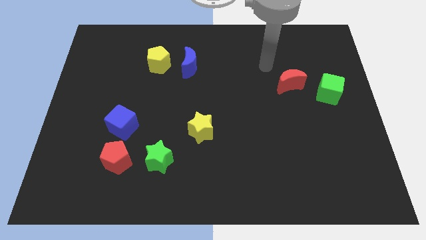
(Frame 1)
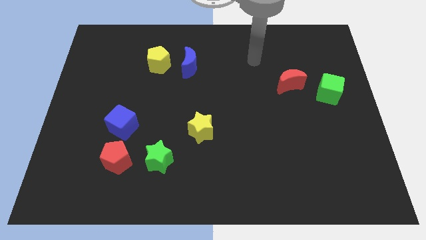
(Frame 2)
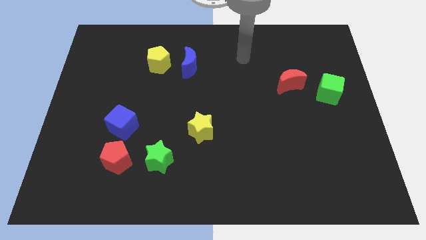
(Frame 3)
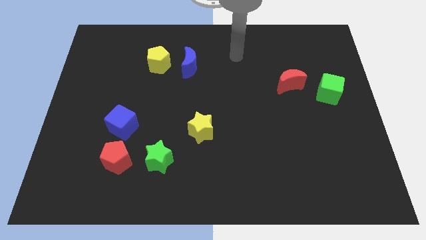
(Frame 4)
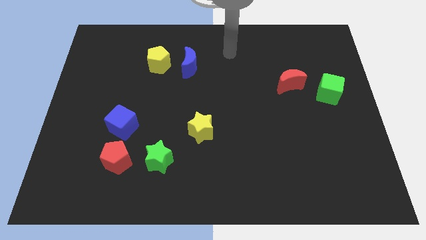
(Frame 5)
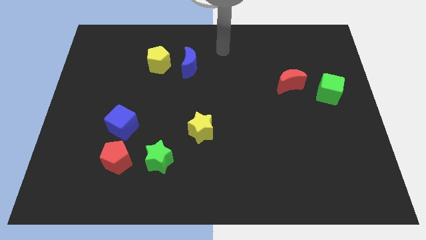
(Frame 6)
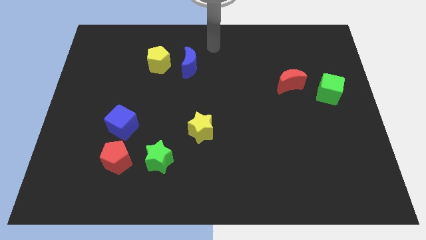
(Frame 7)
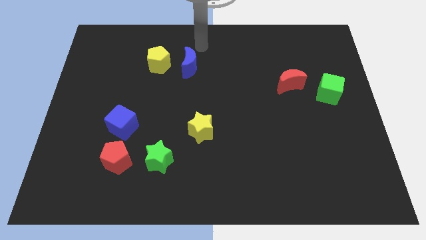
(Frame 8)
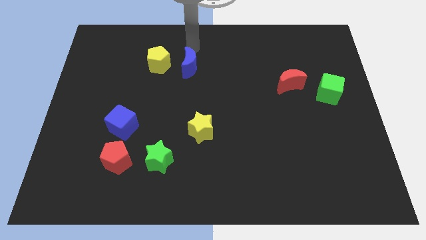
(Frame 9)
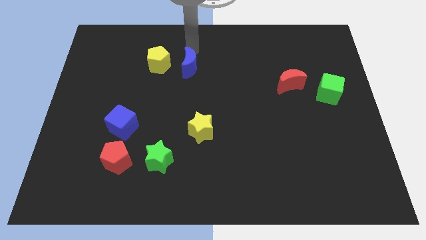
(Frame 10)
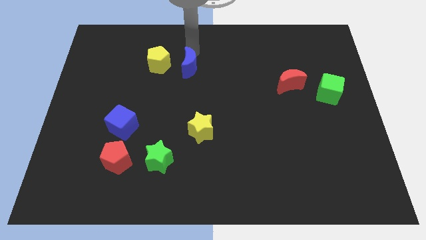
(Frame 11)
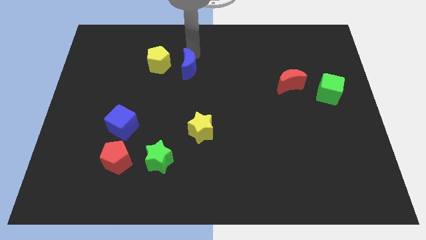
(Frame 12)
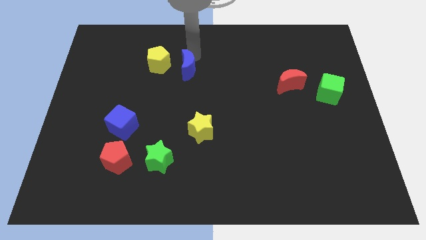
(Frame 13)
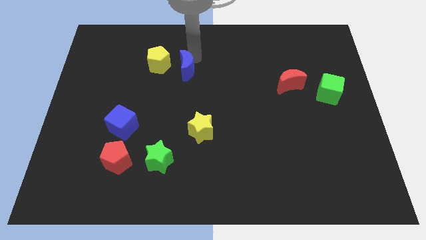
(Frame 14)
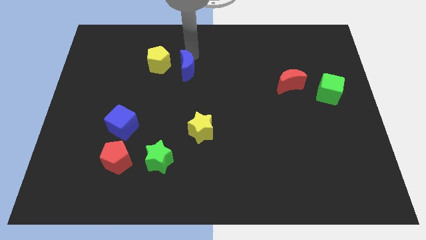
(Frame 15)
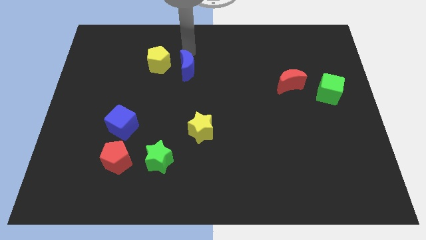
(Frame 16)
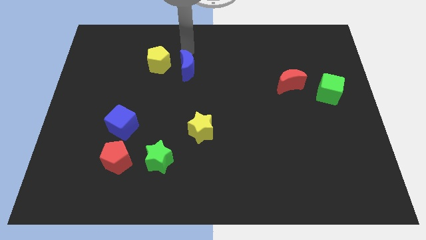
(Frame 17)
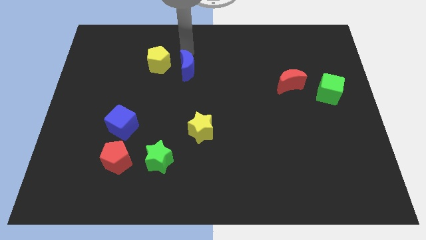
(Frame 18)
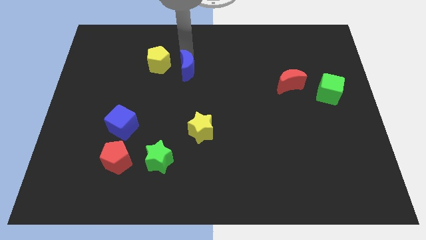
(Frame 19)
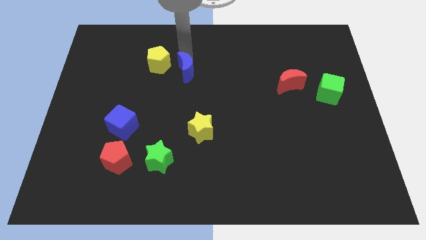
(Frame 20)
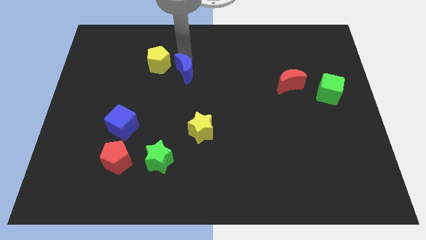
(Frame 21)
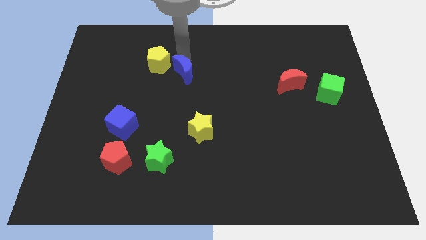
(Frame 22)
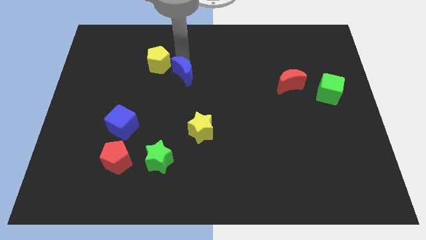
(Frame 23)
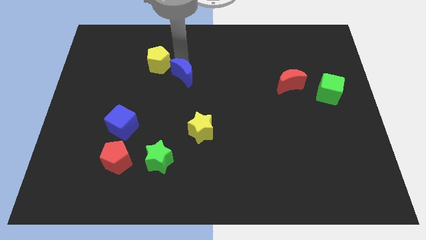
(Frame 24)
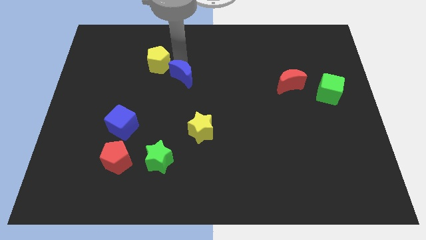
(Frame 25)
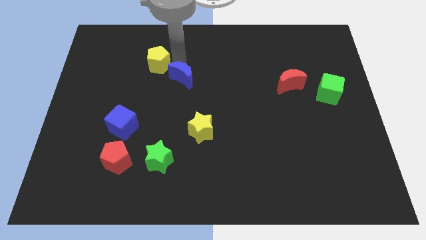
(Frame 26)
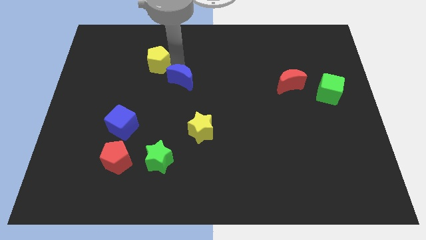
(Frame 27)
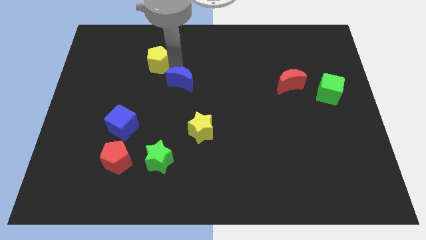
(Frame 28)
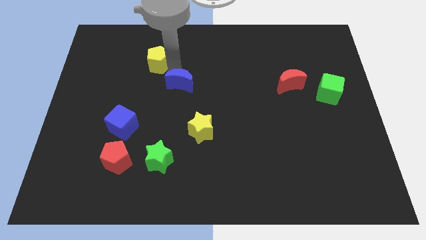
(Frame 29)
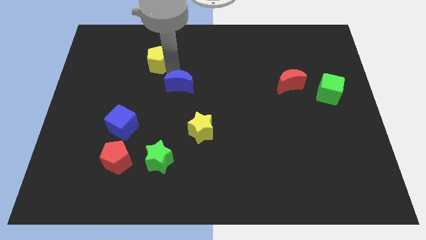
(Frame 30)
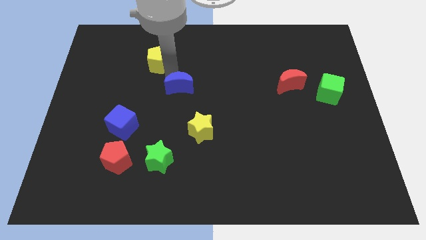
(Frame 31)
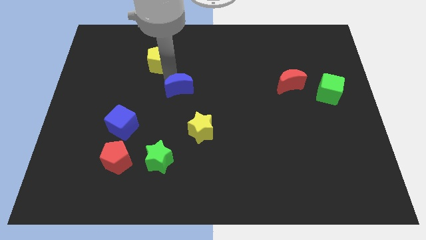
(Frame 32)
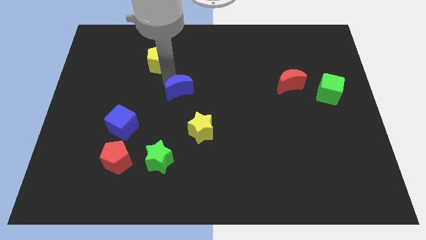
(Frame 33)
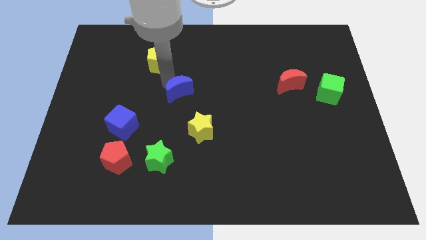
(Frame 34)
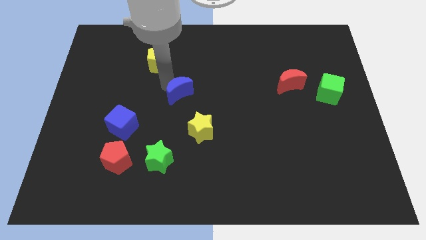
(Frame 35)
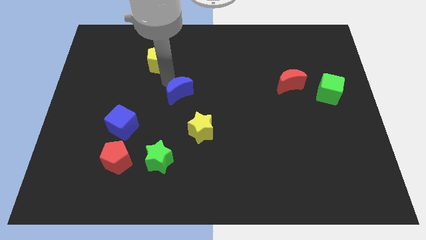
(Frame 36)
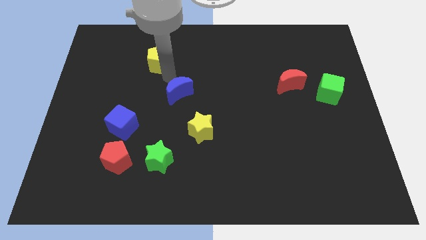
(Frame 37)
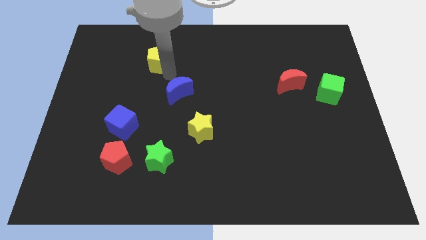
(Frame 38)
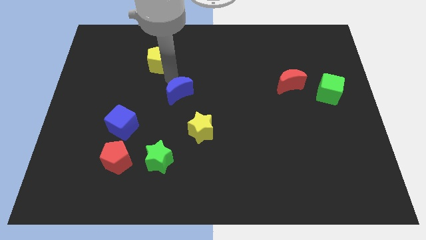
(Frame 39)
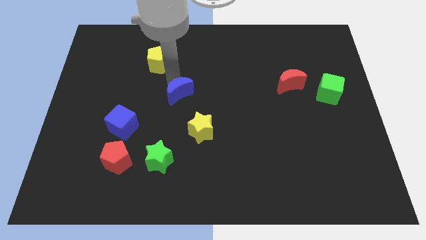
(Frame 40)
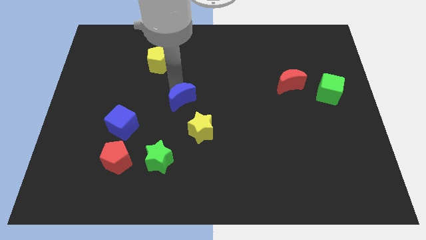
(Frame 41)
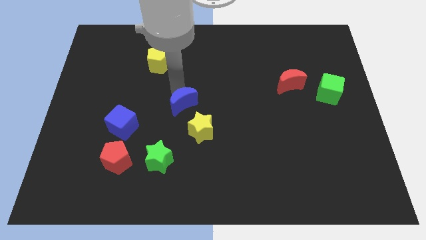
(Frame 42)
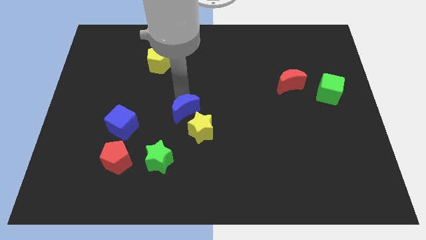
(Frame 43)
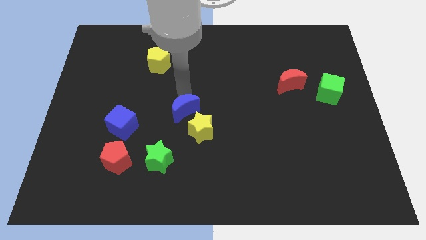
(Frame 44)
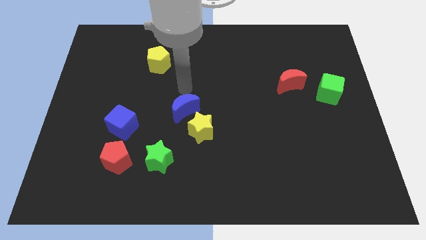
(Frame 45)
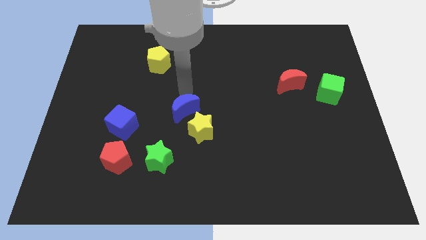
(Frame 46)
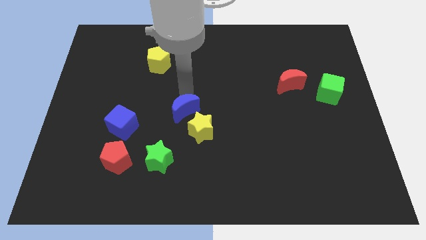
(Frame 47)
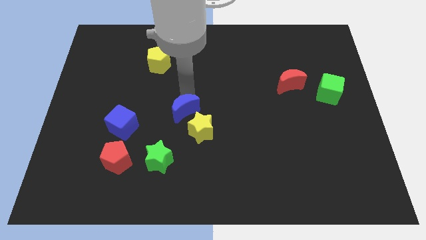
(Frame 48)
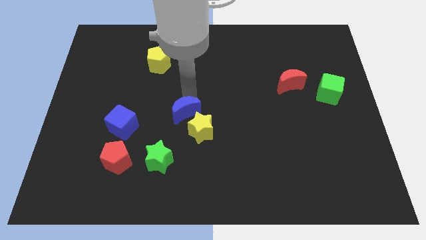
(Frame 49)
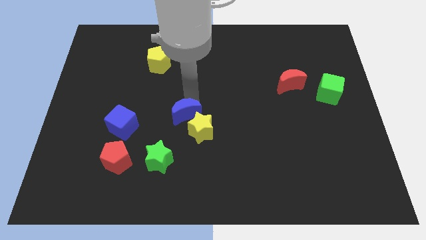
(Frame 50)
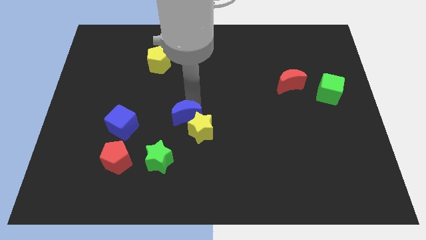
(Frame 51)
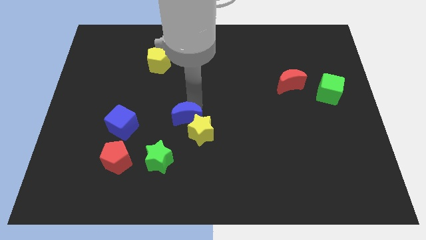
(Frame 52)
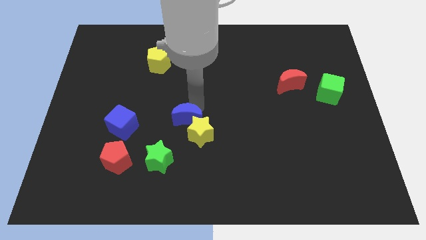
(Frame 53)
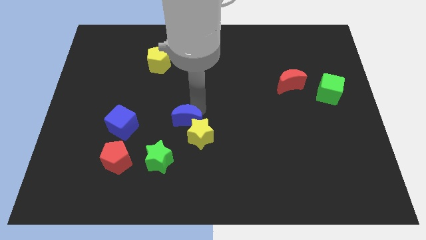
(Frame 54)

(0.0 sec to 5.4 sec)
put the blue moon to the top right side of the green star

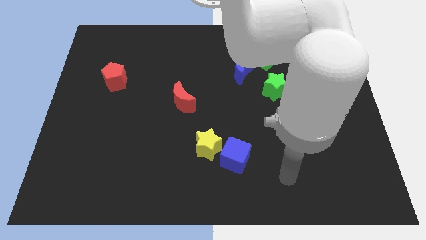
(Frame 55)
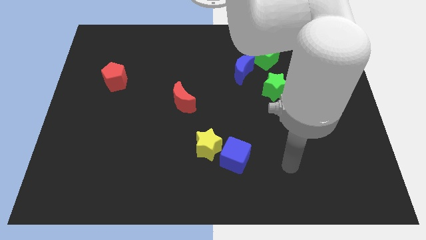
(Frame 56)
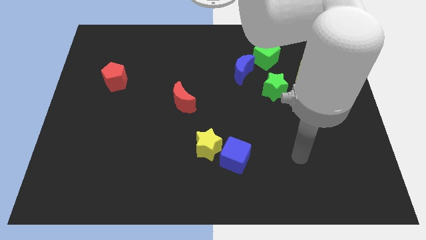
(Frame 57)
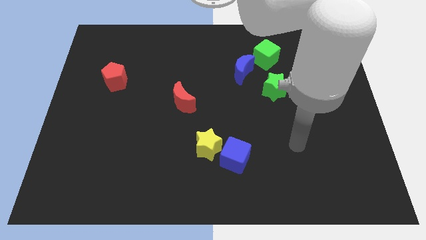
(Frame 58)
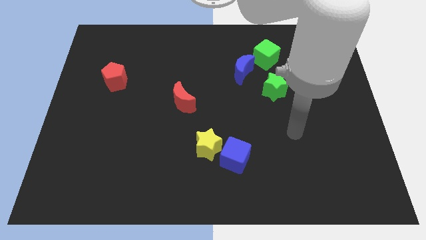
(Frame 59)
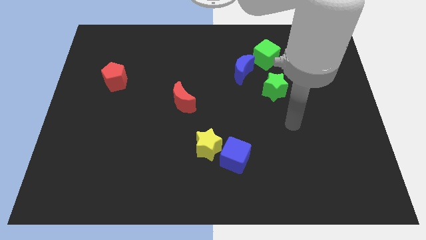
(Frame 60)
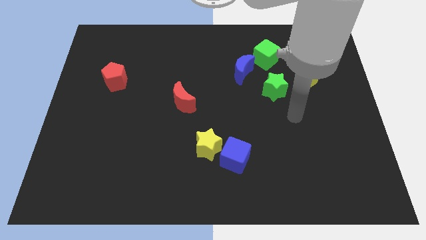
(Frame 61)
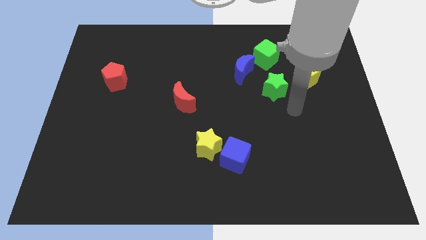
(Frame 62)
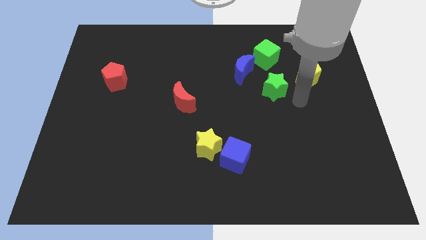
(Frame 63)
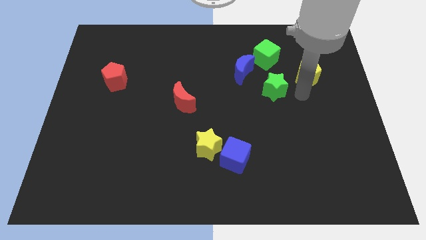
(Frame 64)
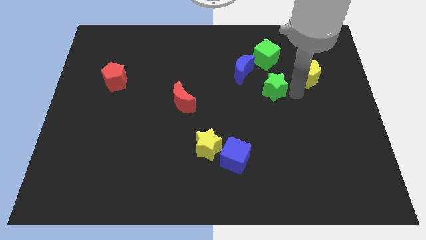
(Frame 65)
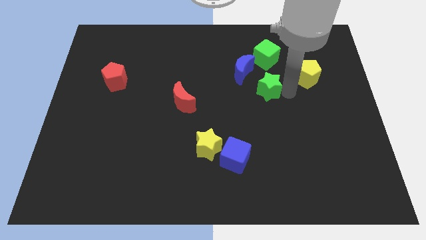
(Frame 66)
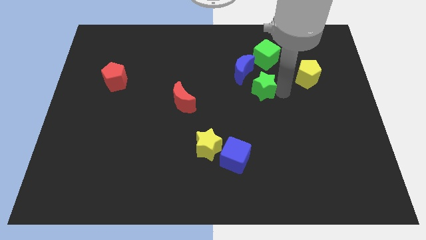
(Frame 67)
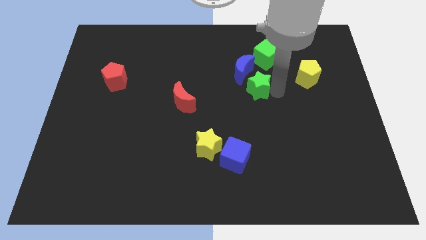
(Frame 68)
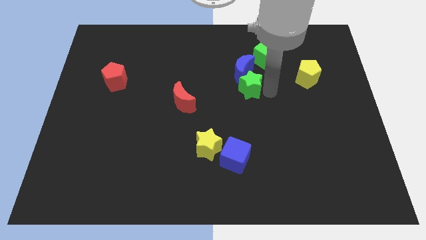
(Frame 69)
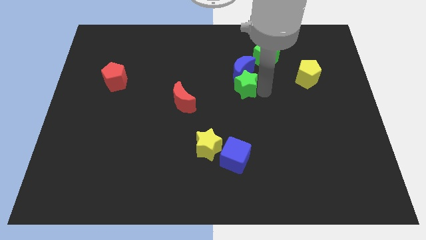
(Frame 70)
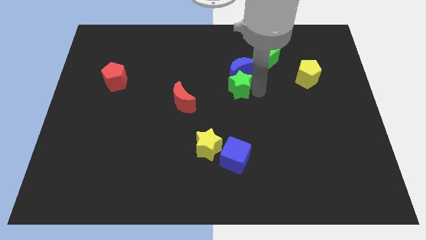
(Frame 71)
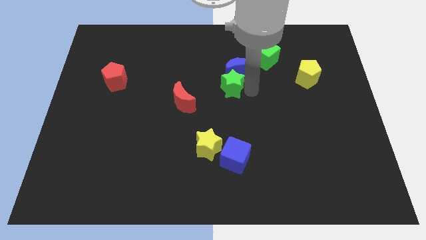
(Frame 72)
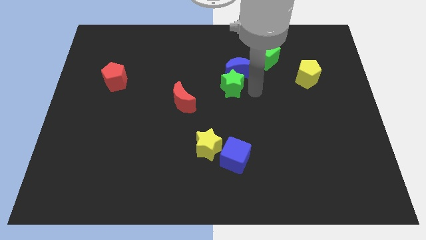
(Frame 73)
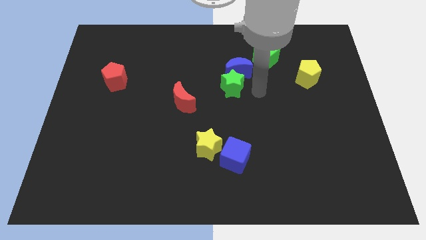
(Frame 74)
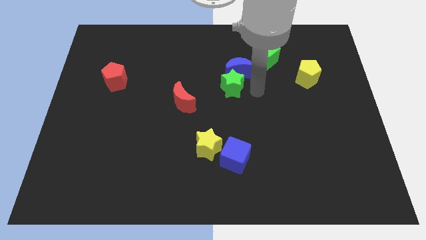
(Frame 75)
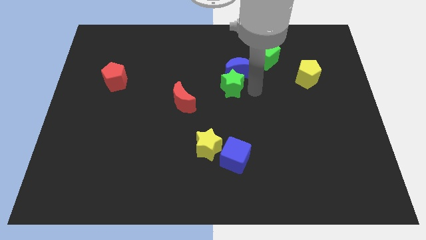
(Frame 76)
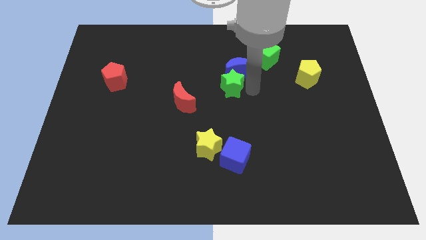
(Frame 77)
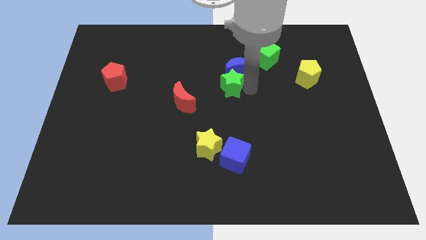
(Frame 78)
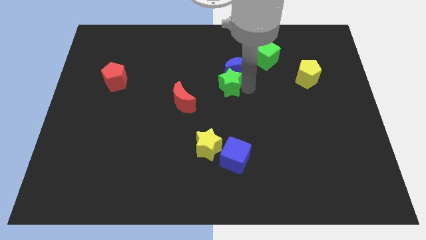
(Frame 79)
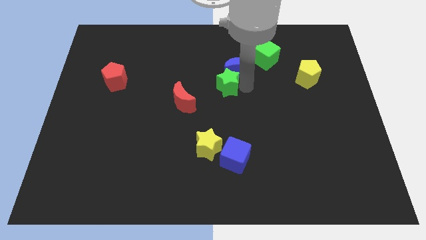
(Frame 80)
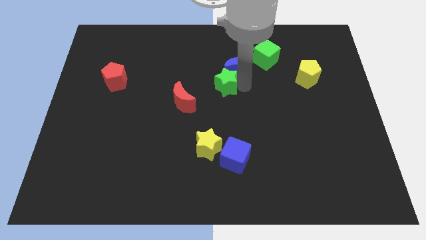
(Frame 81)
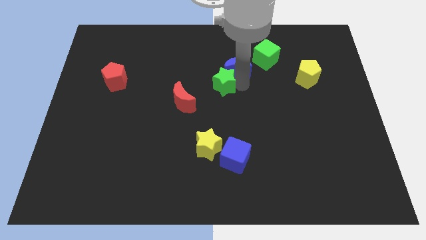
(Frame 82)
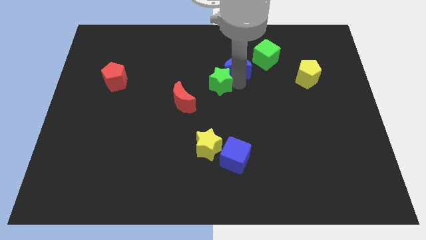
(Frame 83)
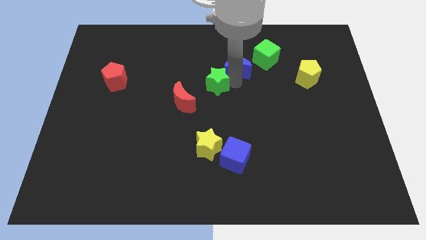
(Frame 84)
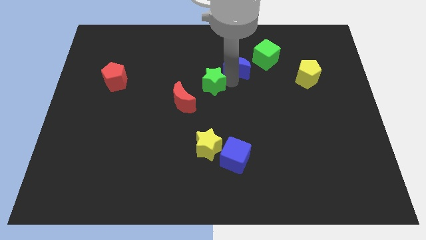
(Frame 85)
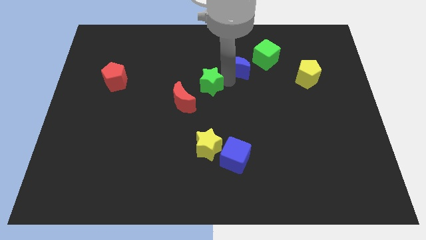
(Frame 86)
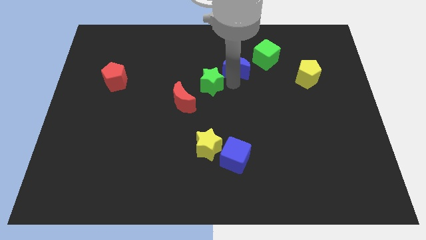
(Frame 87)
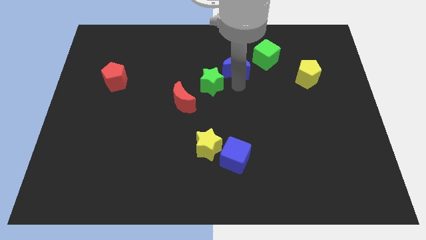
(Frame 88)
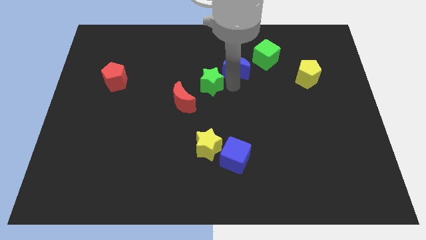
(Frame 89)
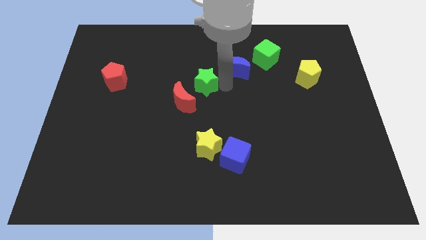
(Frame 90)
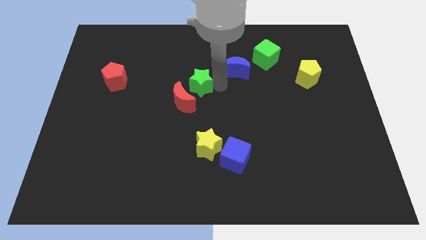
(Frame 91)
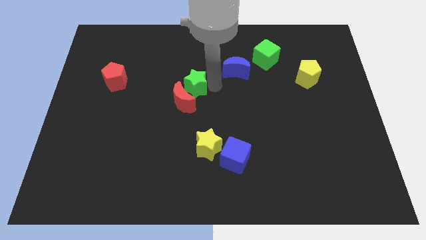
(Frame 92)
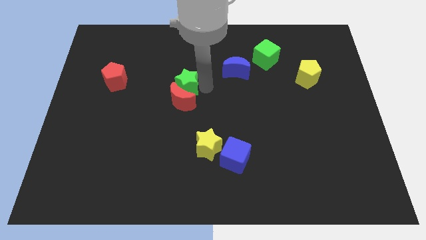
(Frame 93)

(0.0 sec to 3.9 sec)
slide the green star to the top left side of the red moon
